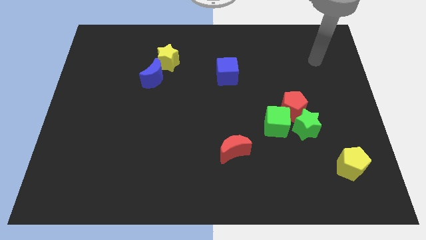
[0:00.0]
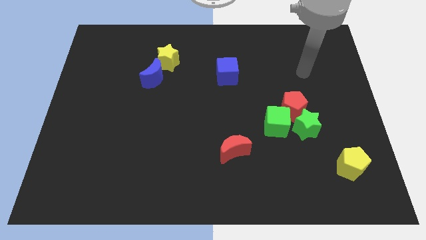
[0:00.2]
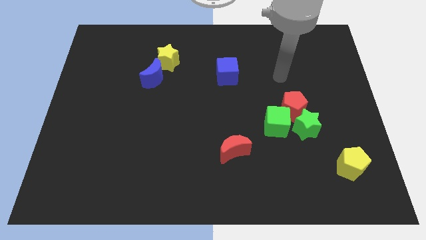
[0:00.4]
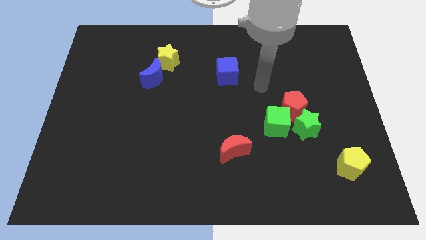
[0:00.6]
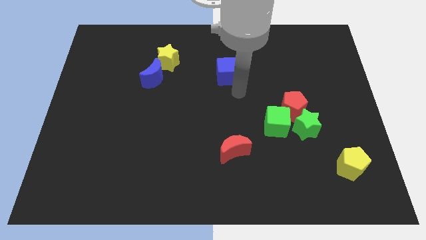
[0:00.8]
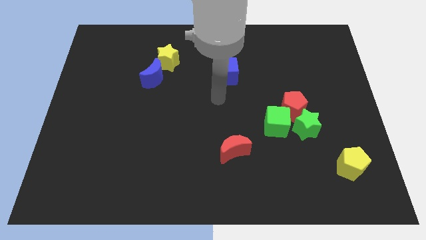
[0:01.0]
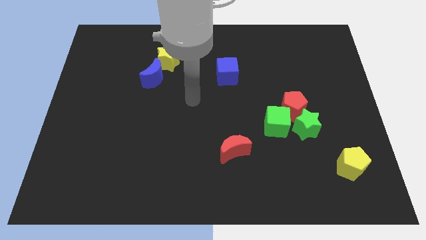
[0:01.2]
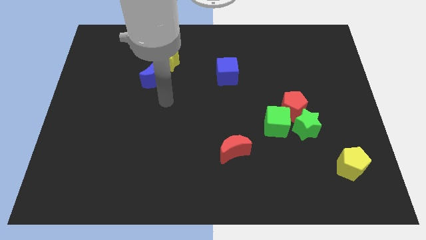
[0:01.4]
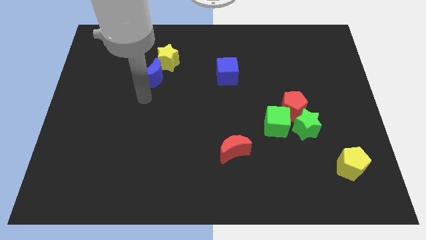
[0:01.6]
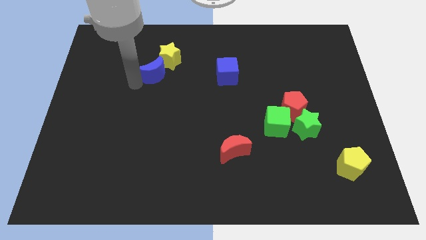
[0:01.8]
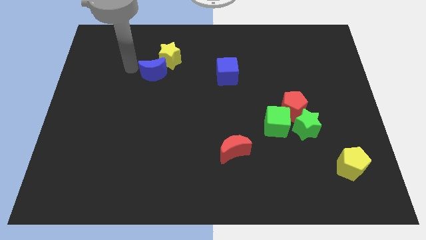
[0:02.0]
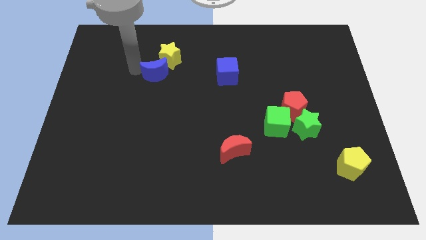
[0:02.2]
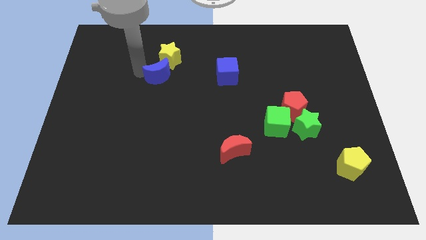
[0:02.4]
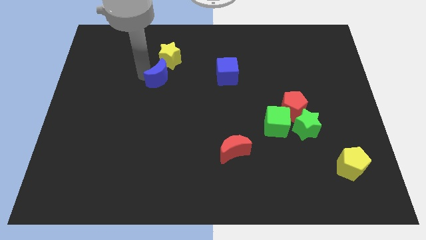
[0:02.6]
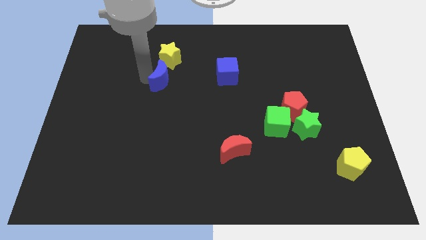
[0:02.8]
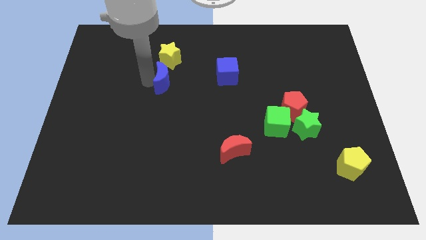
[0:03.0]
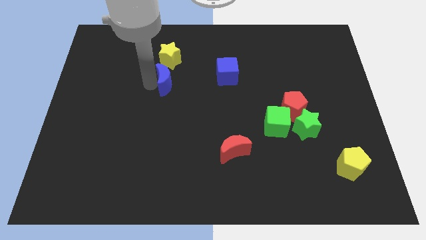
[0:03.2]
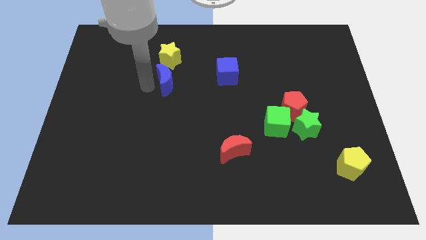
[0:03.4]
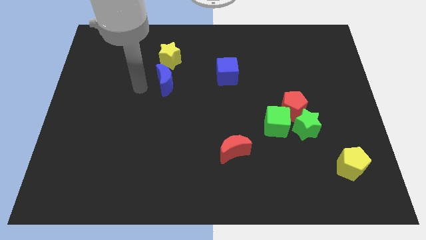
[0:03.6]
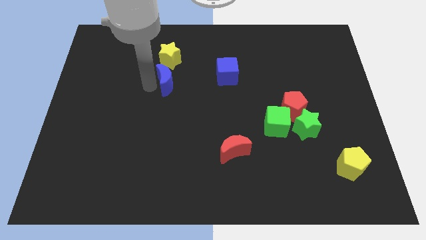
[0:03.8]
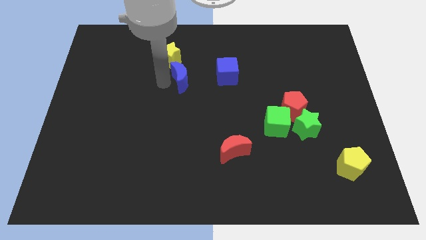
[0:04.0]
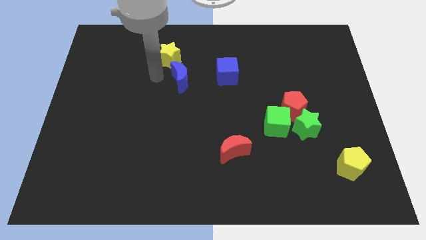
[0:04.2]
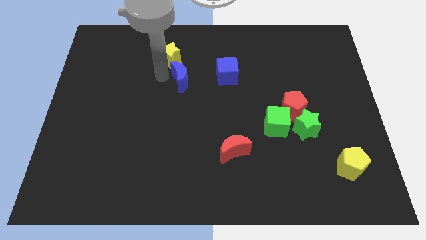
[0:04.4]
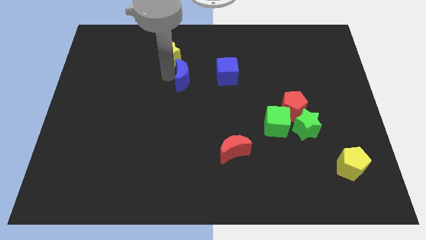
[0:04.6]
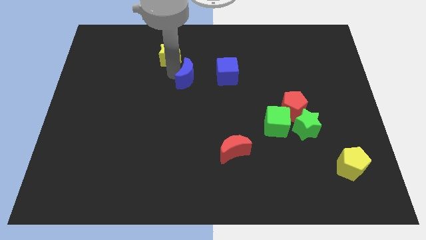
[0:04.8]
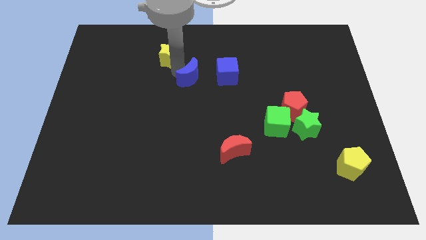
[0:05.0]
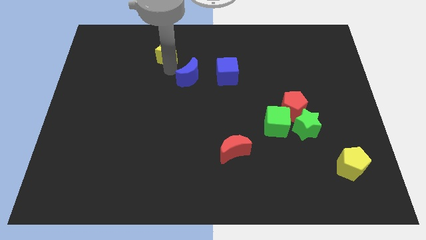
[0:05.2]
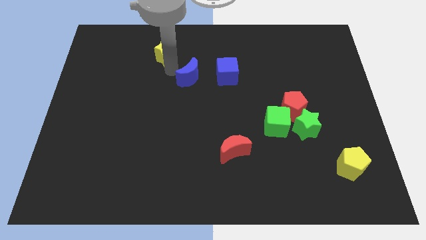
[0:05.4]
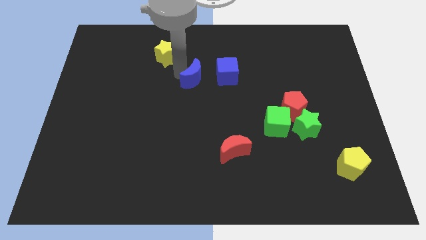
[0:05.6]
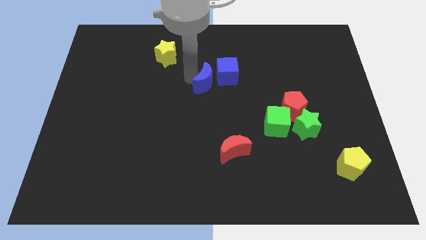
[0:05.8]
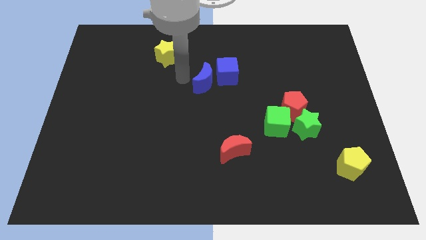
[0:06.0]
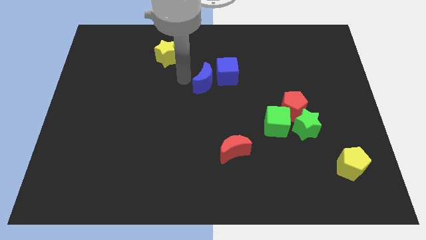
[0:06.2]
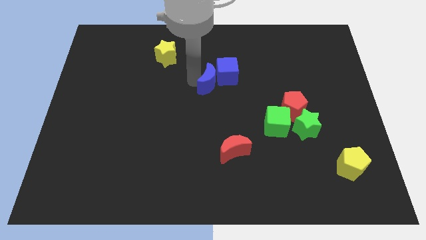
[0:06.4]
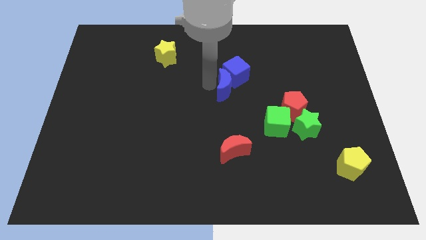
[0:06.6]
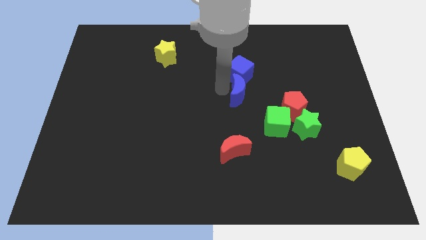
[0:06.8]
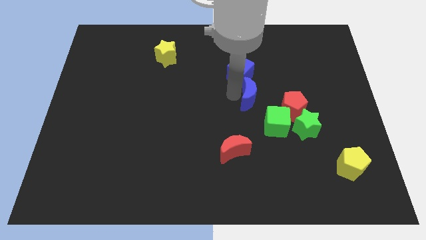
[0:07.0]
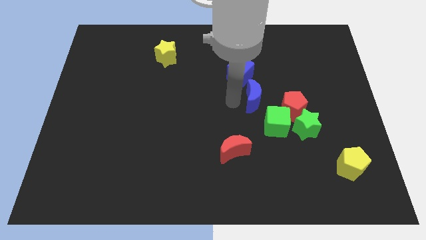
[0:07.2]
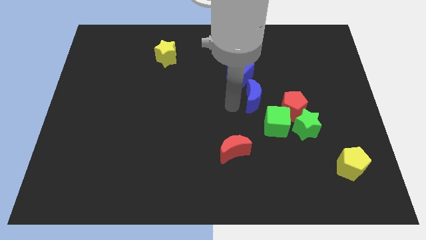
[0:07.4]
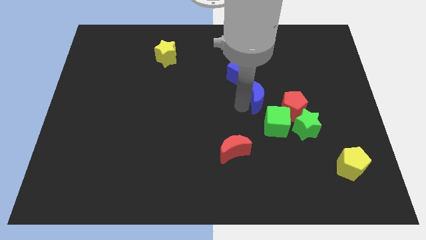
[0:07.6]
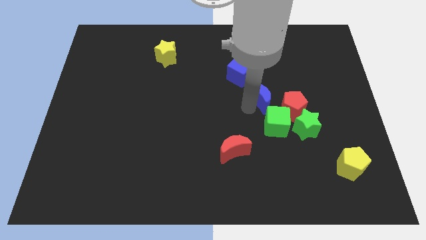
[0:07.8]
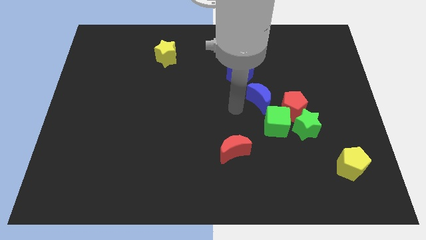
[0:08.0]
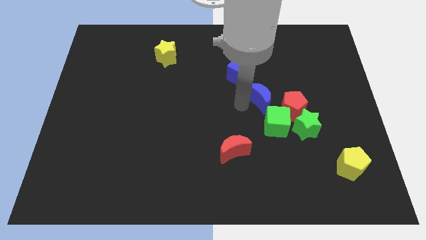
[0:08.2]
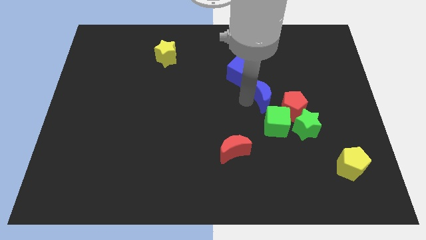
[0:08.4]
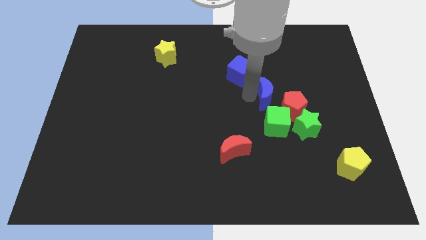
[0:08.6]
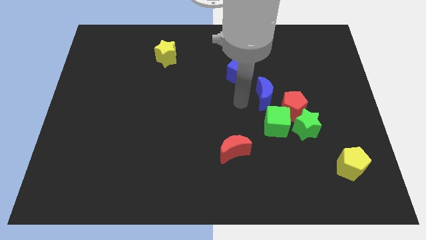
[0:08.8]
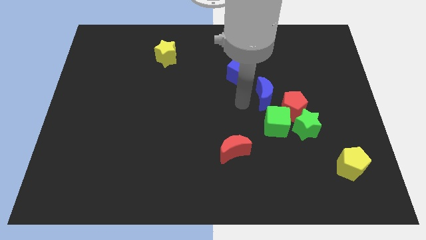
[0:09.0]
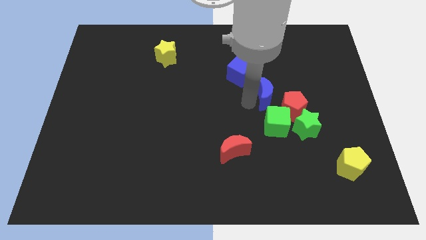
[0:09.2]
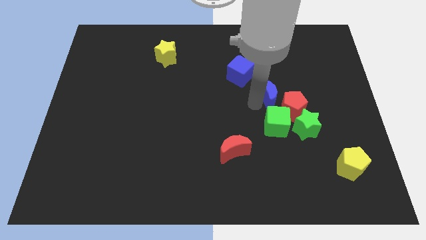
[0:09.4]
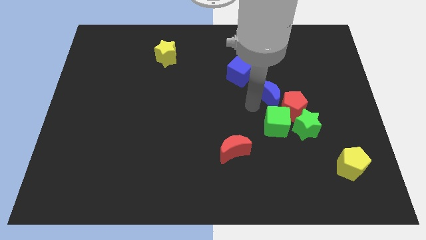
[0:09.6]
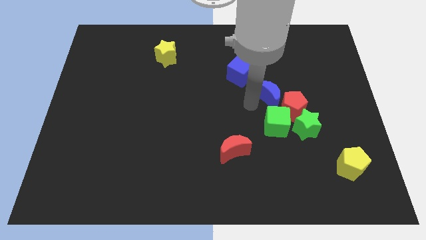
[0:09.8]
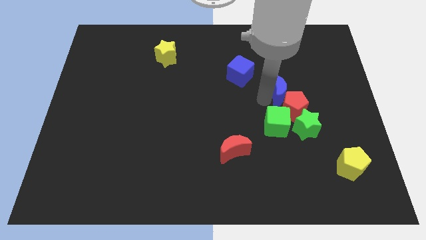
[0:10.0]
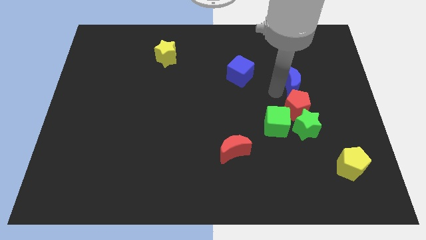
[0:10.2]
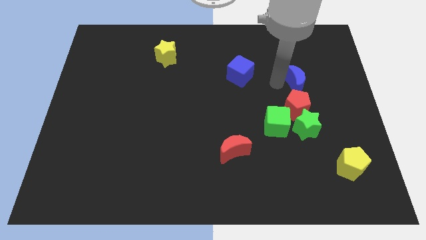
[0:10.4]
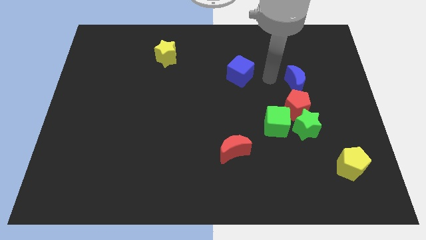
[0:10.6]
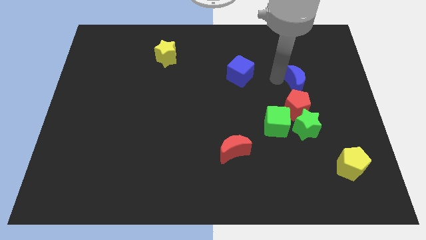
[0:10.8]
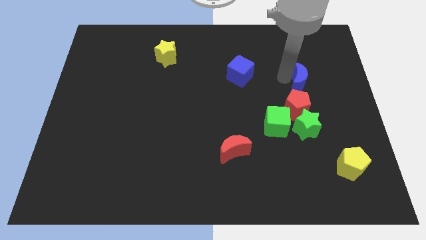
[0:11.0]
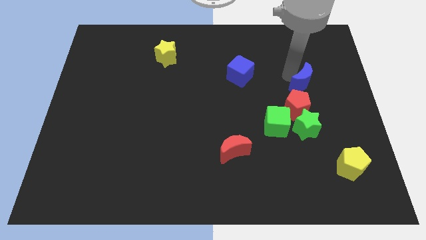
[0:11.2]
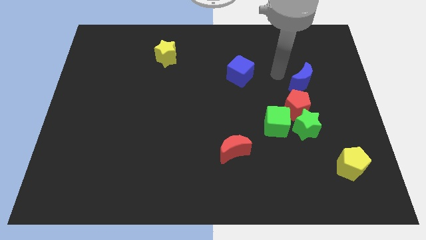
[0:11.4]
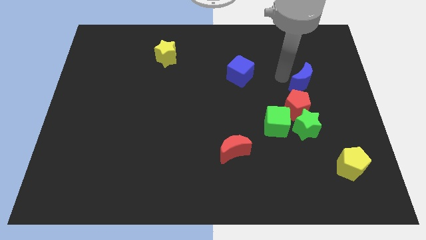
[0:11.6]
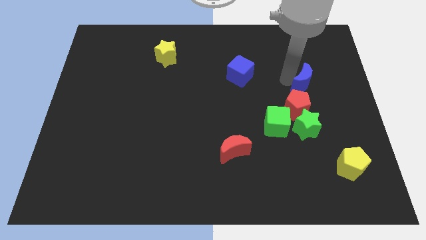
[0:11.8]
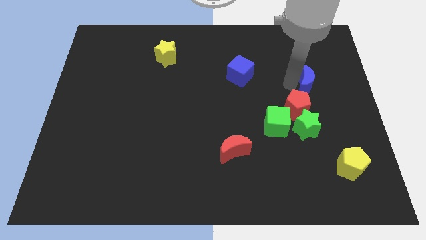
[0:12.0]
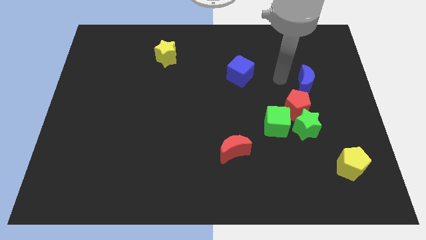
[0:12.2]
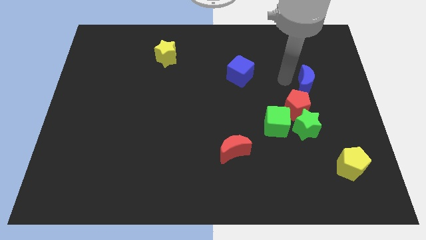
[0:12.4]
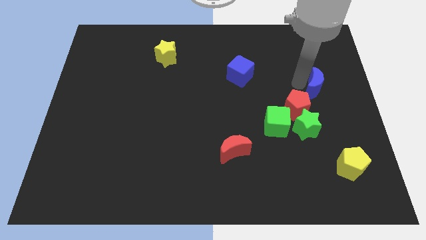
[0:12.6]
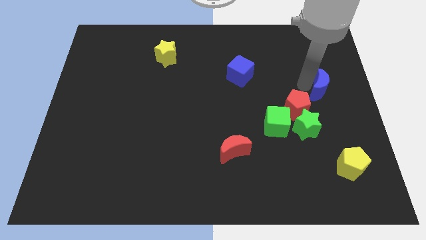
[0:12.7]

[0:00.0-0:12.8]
put the blue moon to the right side
